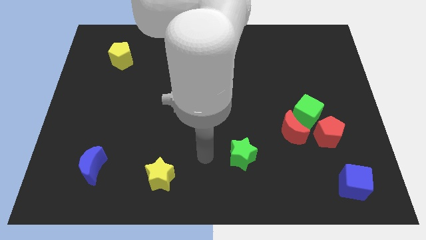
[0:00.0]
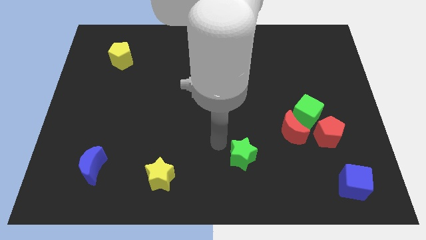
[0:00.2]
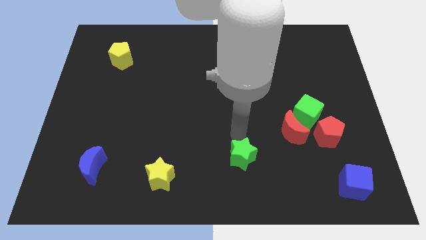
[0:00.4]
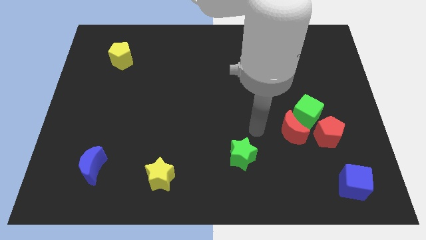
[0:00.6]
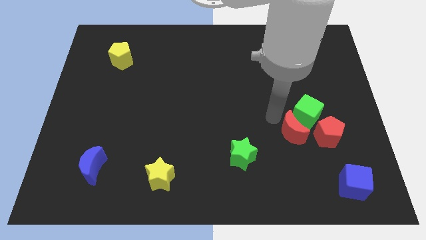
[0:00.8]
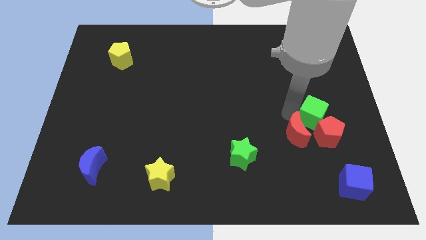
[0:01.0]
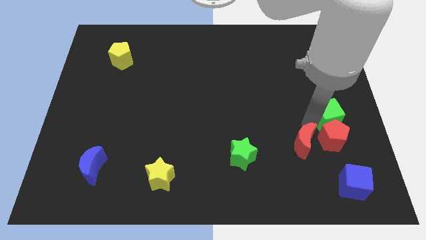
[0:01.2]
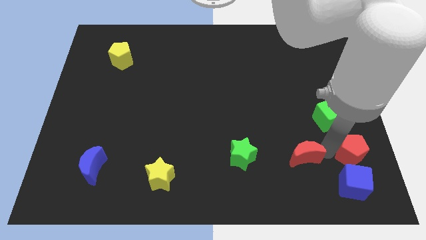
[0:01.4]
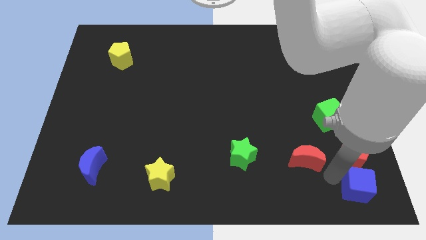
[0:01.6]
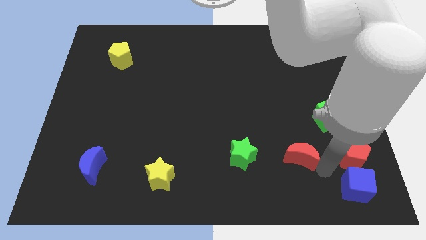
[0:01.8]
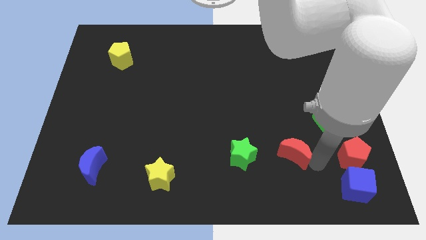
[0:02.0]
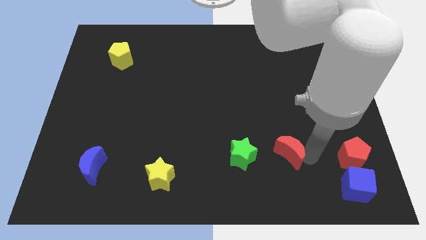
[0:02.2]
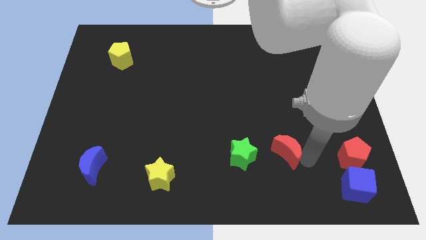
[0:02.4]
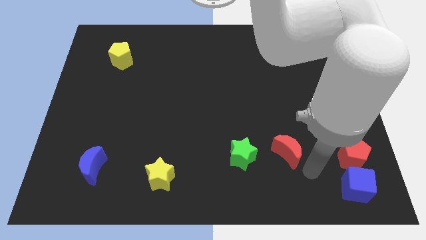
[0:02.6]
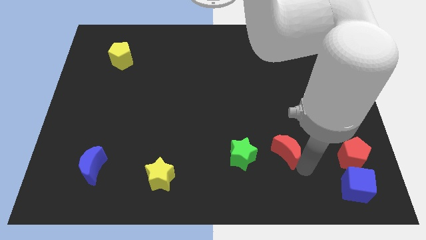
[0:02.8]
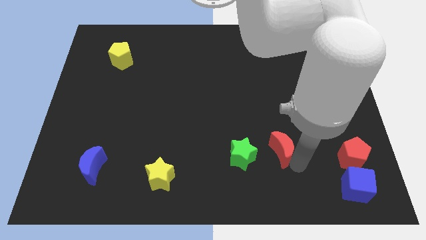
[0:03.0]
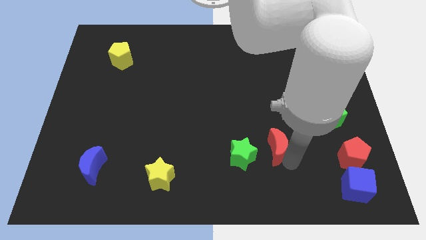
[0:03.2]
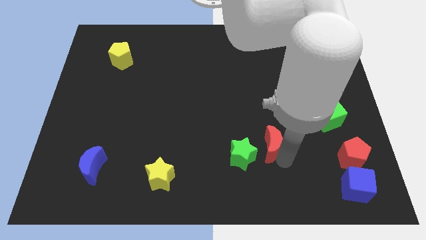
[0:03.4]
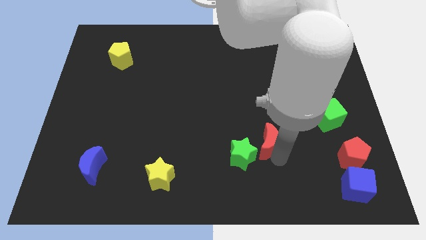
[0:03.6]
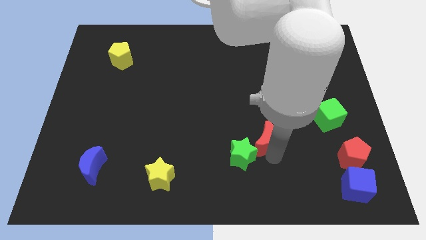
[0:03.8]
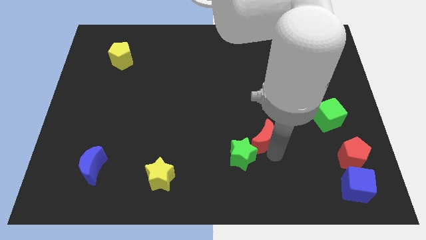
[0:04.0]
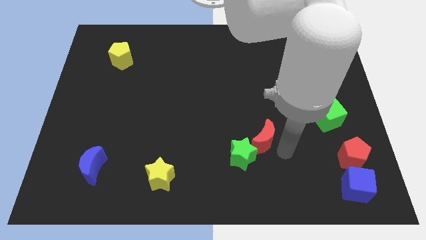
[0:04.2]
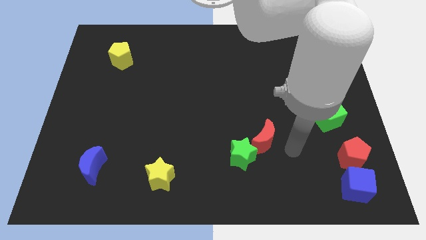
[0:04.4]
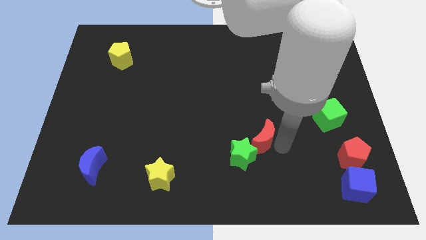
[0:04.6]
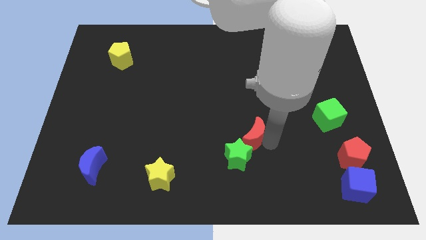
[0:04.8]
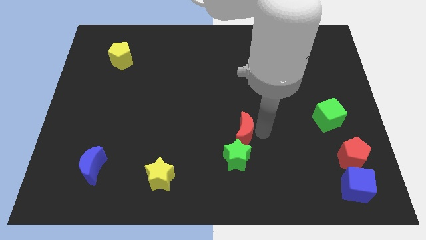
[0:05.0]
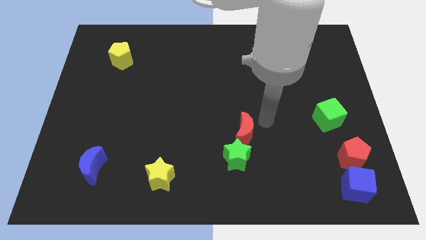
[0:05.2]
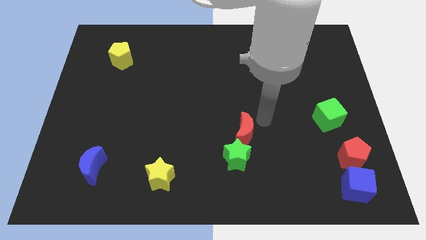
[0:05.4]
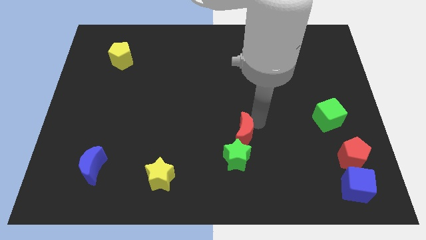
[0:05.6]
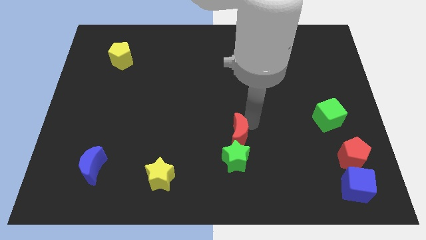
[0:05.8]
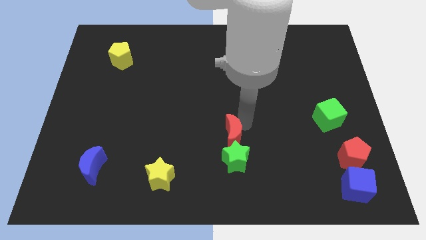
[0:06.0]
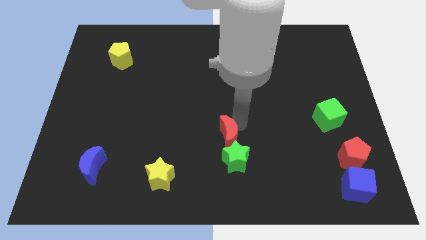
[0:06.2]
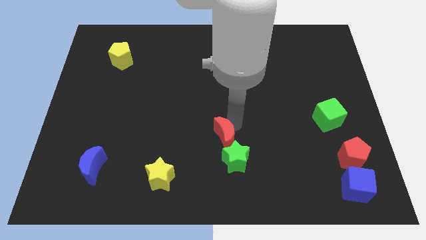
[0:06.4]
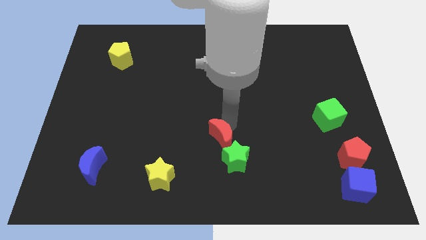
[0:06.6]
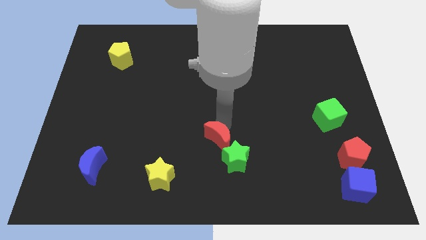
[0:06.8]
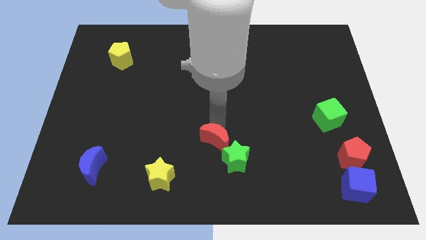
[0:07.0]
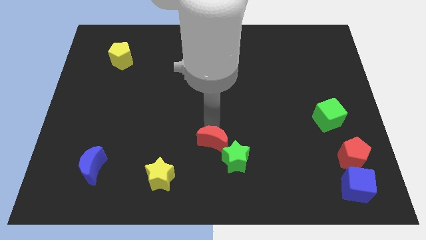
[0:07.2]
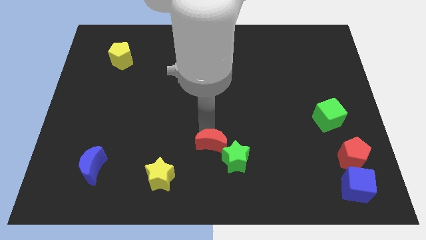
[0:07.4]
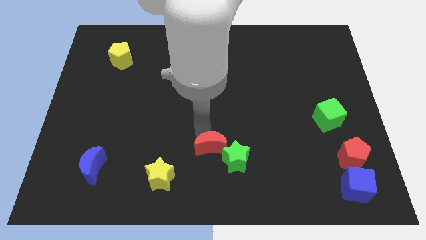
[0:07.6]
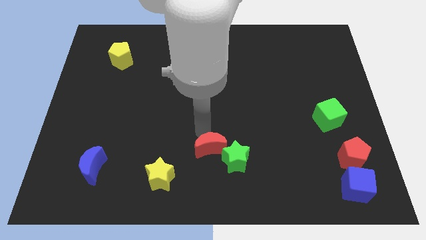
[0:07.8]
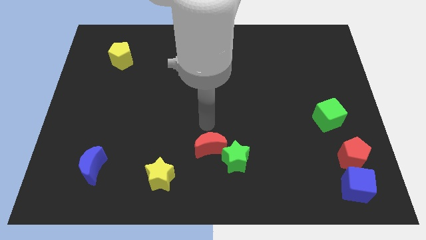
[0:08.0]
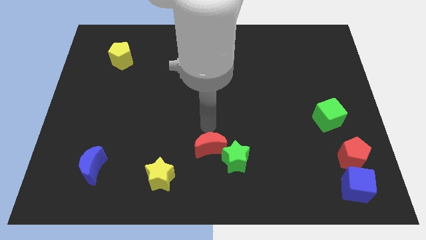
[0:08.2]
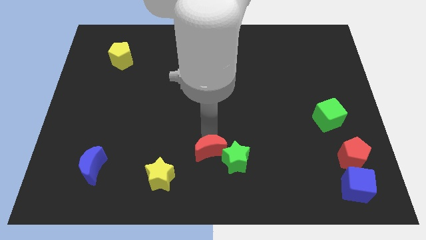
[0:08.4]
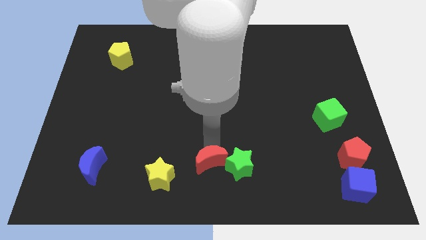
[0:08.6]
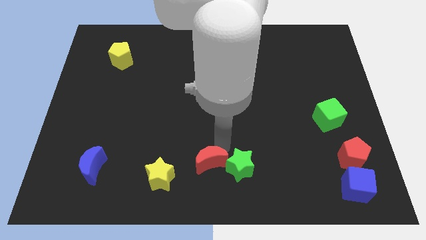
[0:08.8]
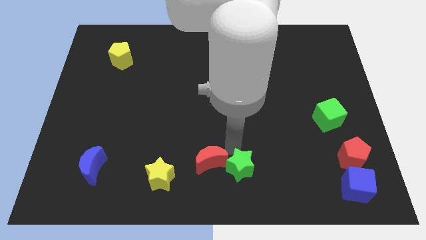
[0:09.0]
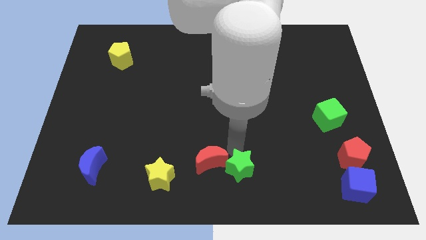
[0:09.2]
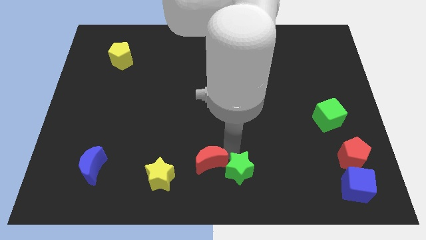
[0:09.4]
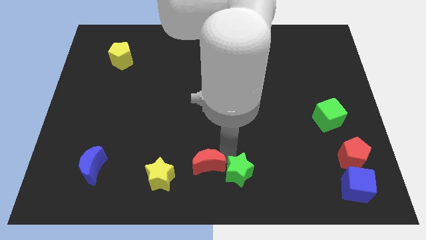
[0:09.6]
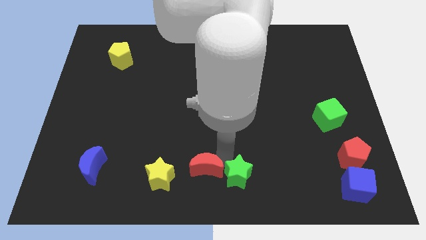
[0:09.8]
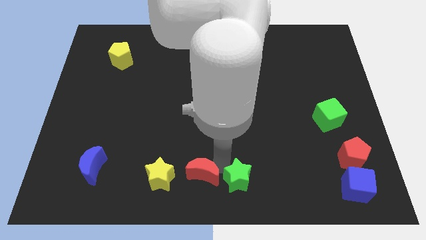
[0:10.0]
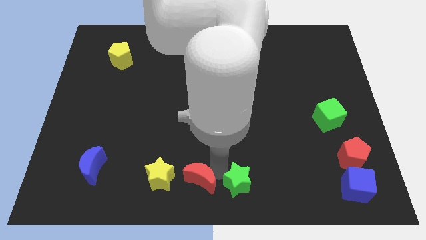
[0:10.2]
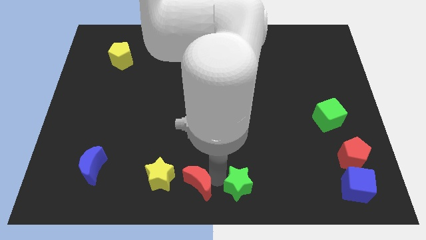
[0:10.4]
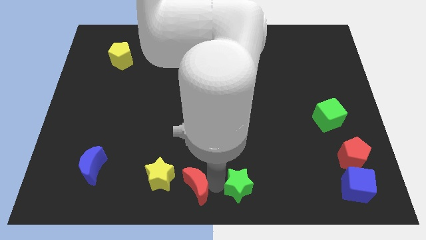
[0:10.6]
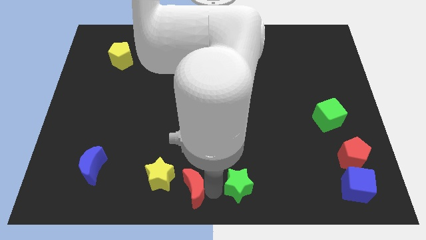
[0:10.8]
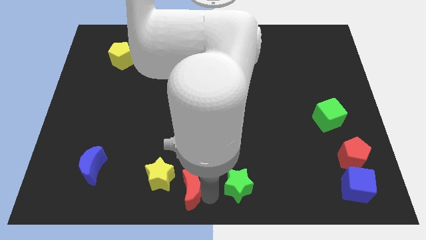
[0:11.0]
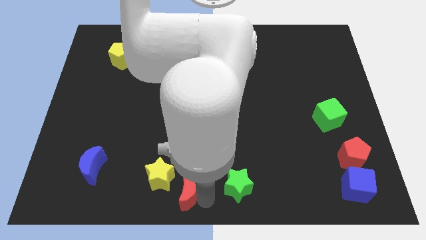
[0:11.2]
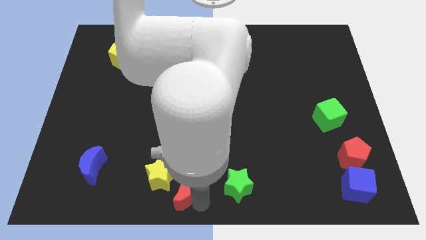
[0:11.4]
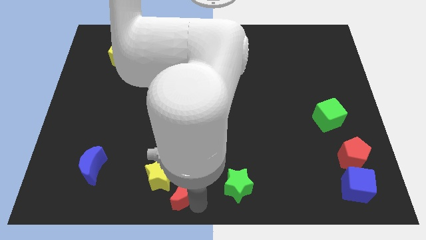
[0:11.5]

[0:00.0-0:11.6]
put the red moon to the yellow star

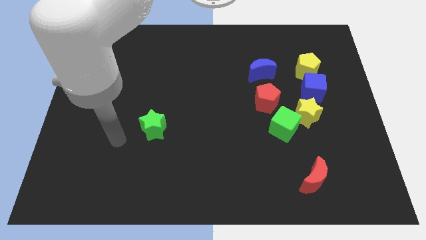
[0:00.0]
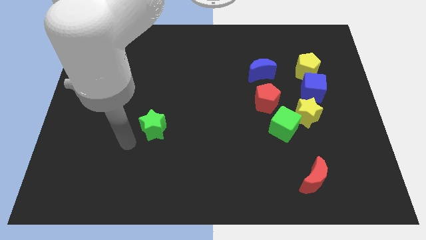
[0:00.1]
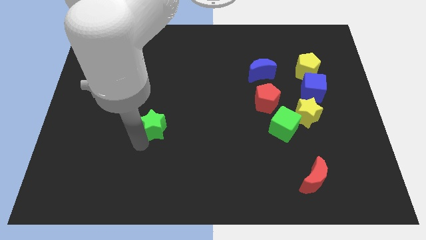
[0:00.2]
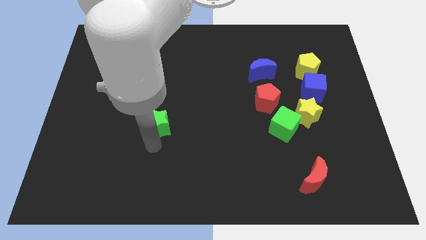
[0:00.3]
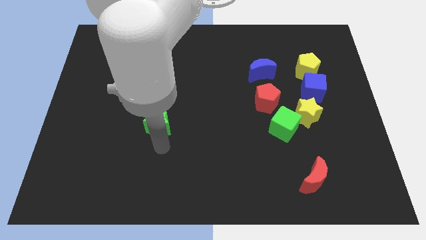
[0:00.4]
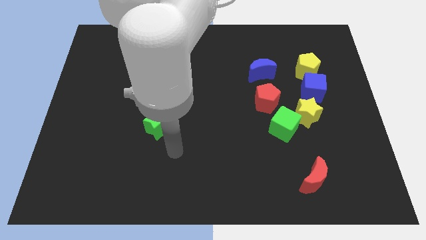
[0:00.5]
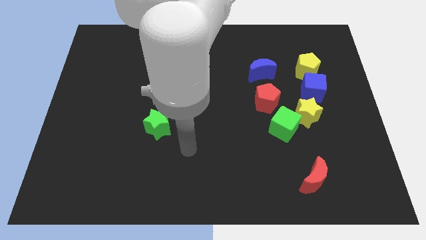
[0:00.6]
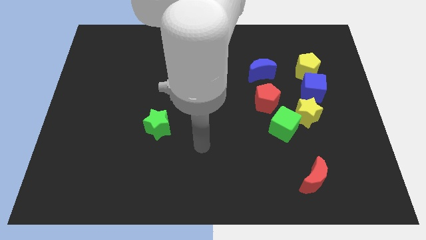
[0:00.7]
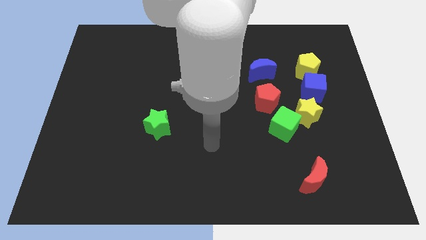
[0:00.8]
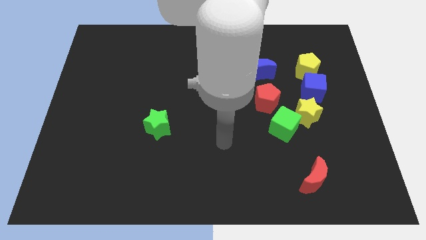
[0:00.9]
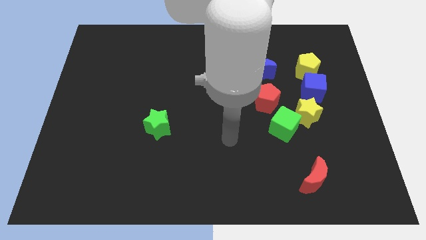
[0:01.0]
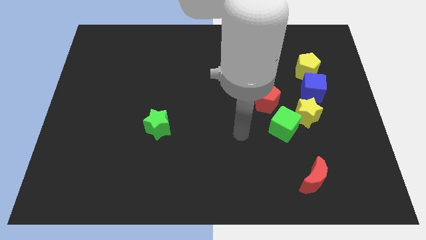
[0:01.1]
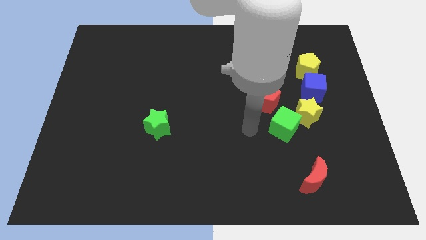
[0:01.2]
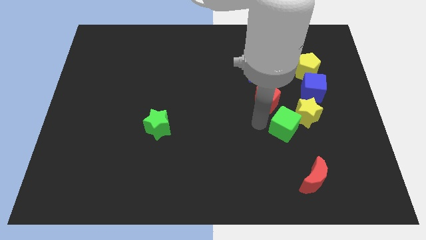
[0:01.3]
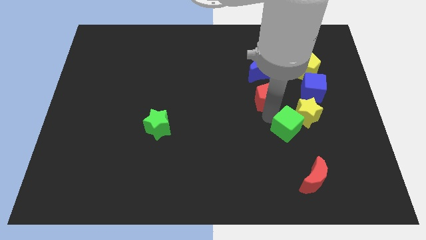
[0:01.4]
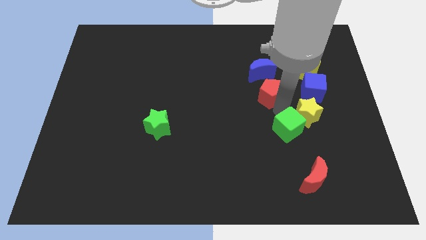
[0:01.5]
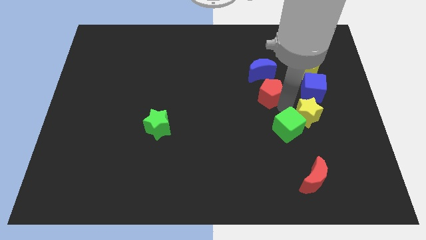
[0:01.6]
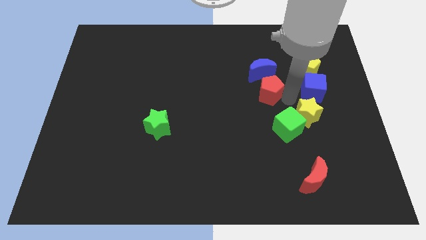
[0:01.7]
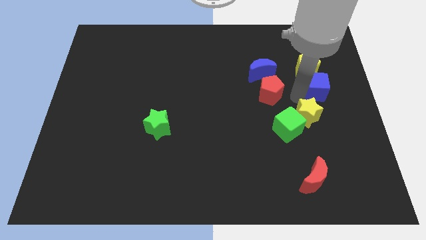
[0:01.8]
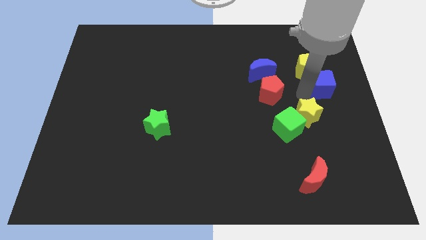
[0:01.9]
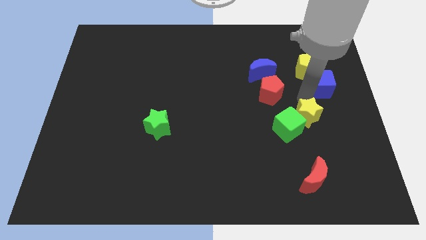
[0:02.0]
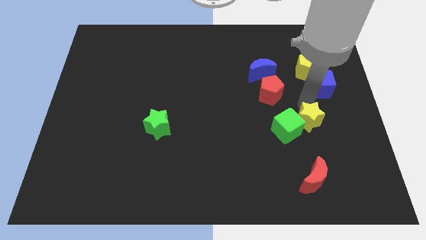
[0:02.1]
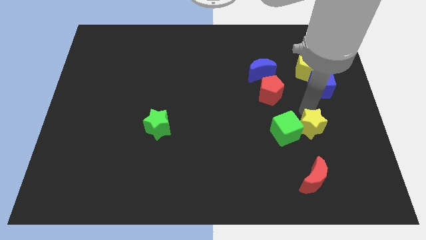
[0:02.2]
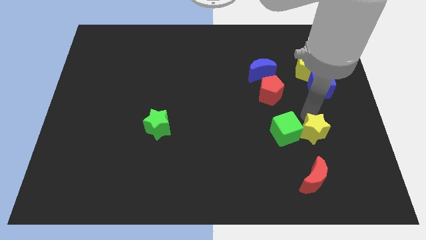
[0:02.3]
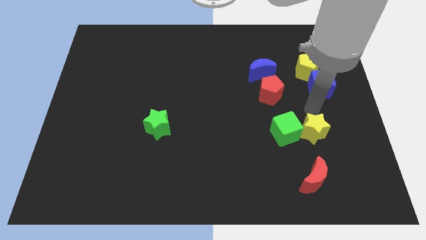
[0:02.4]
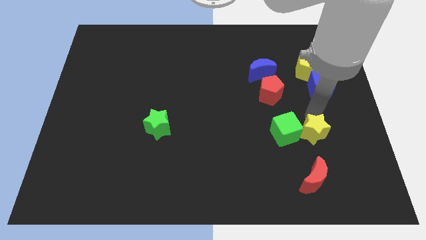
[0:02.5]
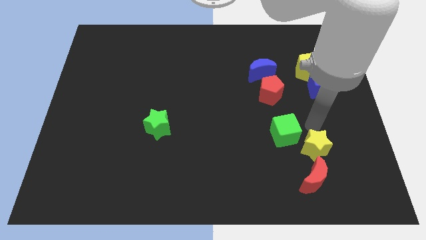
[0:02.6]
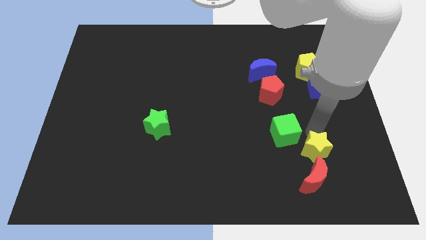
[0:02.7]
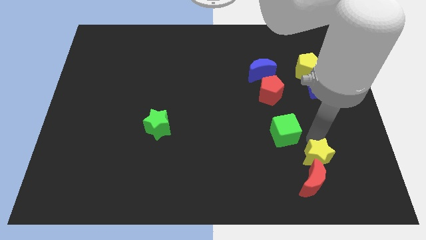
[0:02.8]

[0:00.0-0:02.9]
push the yellow star to the red moon
